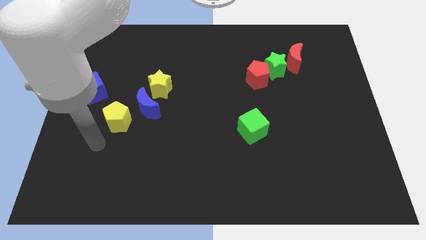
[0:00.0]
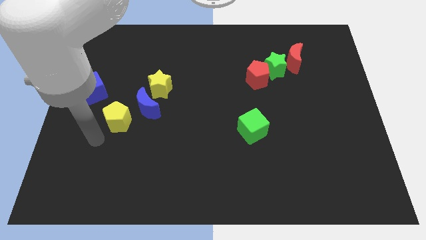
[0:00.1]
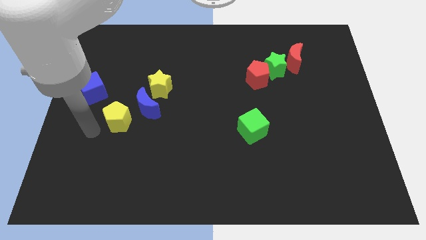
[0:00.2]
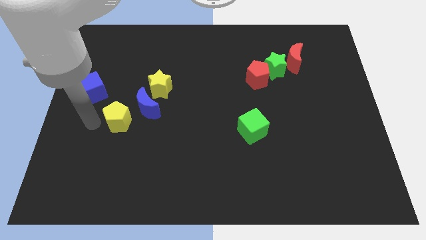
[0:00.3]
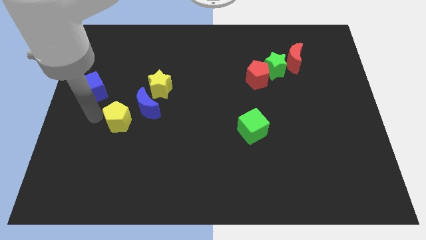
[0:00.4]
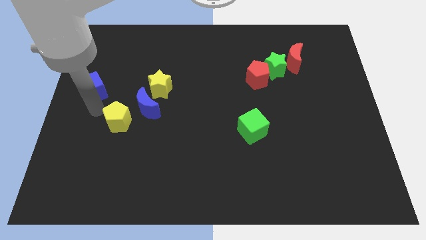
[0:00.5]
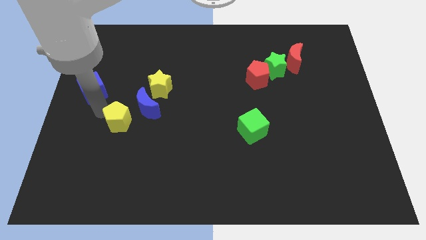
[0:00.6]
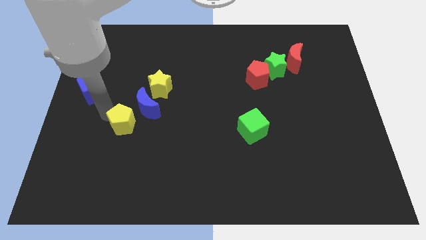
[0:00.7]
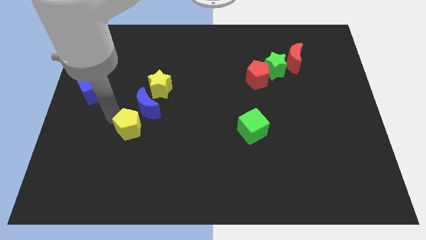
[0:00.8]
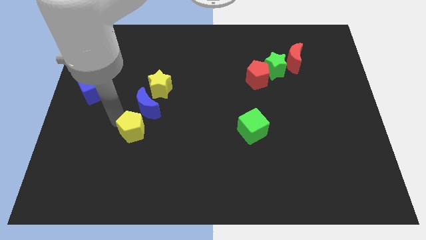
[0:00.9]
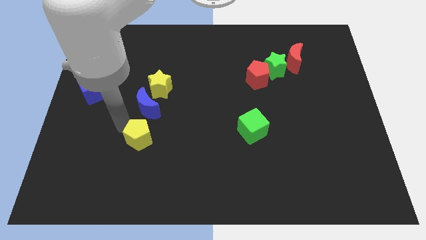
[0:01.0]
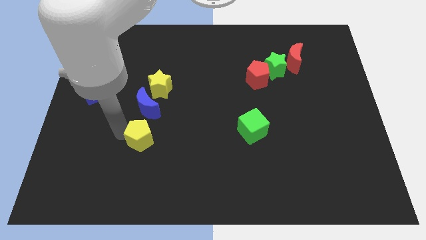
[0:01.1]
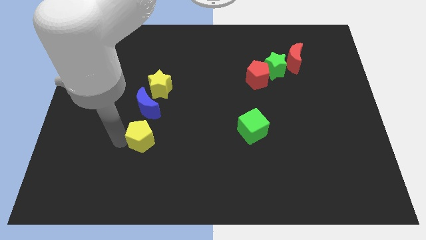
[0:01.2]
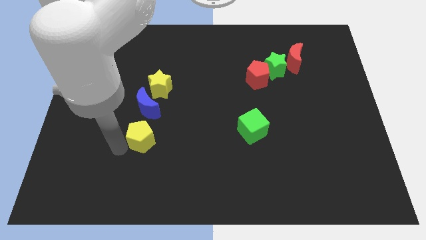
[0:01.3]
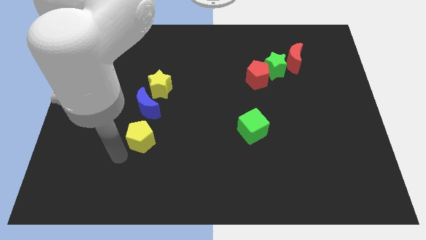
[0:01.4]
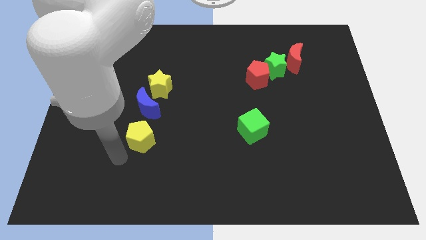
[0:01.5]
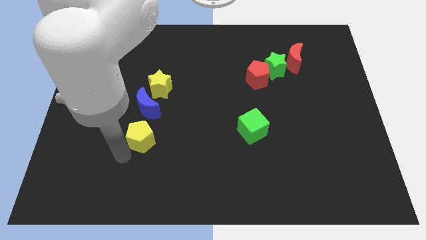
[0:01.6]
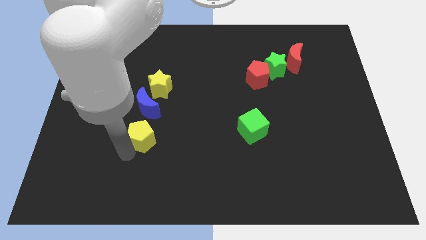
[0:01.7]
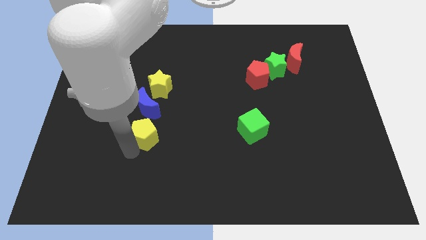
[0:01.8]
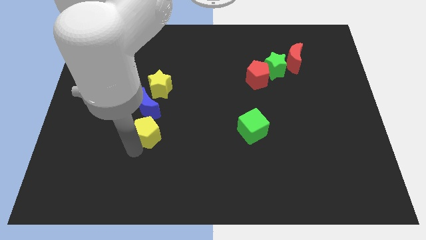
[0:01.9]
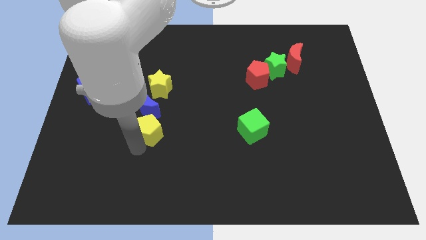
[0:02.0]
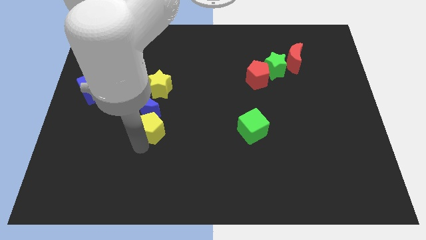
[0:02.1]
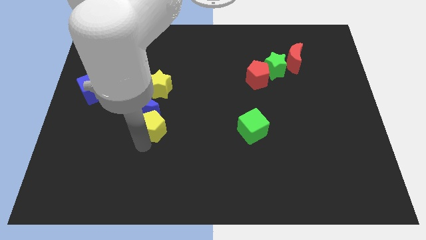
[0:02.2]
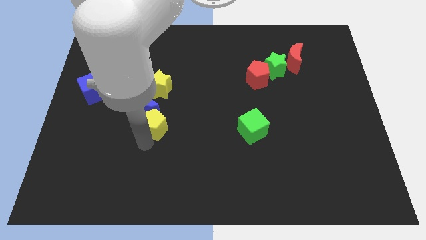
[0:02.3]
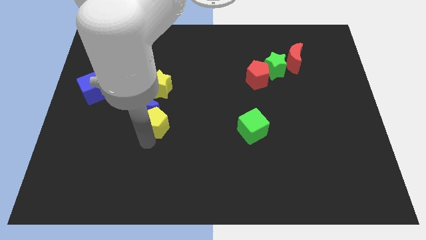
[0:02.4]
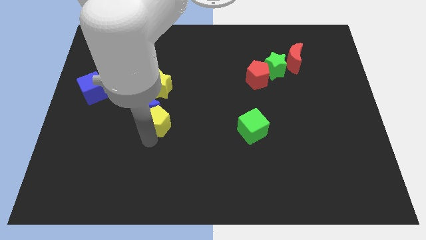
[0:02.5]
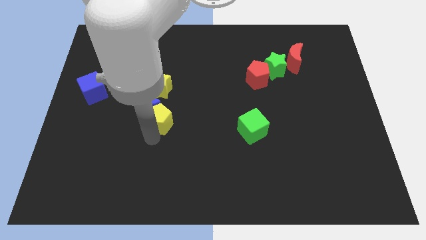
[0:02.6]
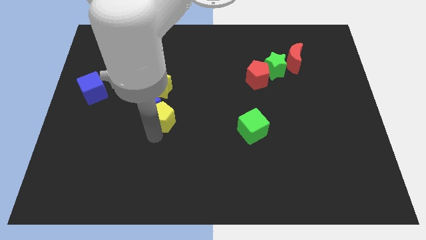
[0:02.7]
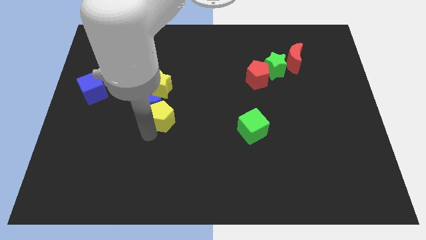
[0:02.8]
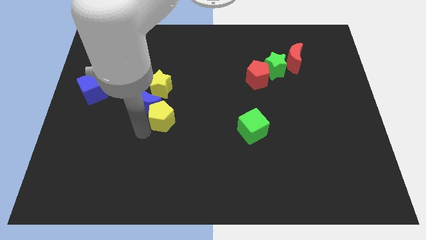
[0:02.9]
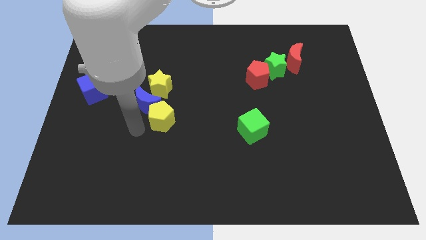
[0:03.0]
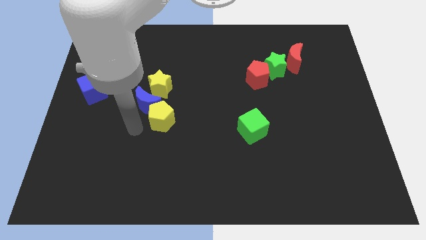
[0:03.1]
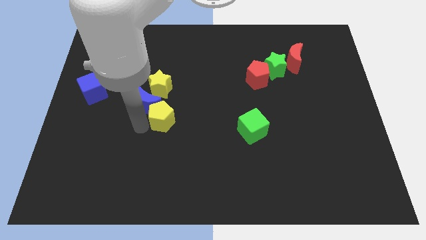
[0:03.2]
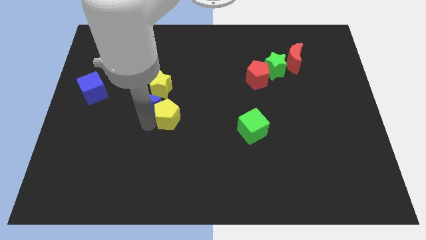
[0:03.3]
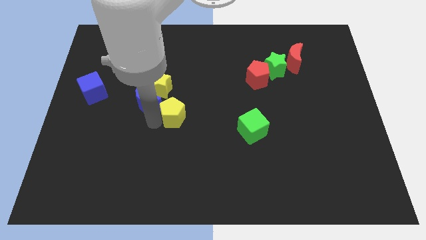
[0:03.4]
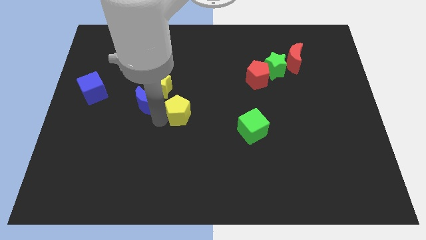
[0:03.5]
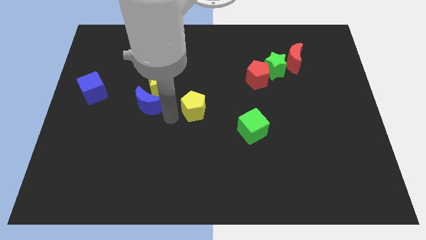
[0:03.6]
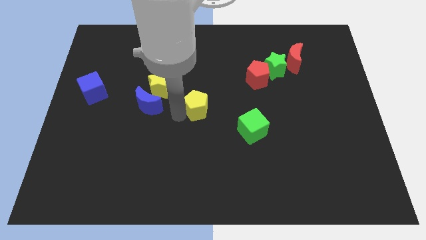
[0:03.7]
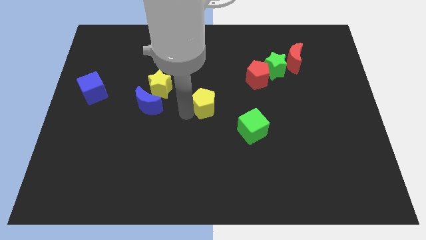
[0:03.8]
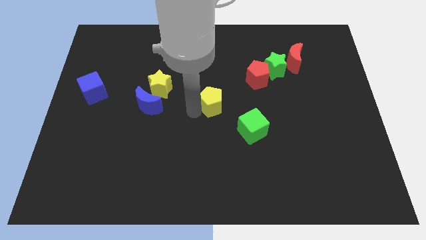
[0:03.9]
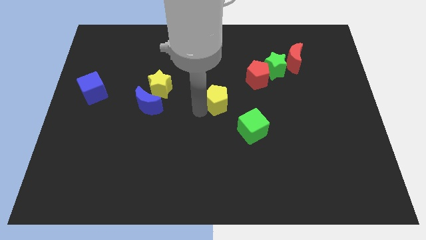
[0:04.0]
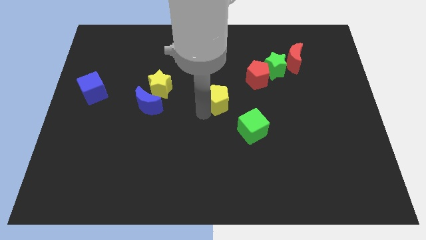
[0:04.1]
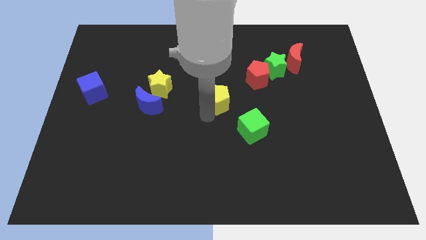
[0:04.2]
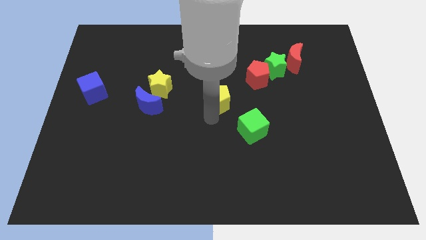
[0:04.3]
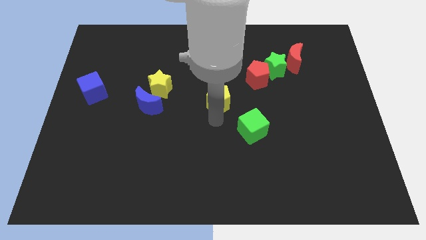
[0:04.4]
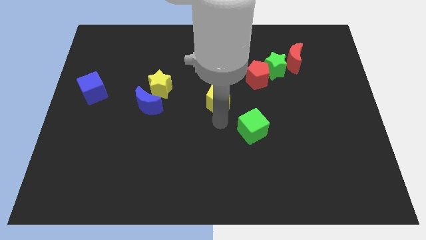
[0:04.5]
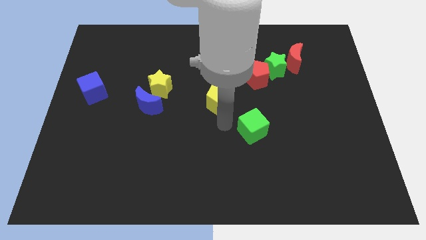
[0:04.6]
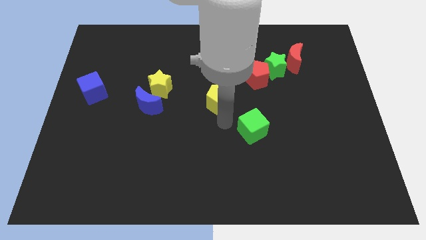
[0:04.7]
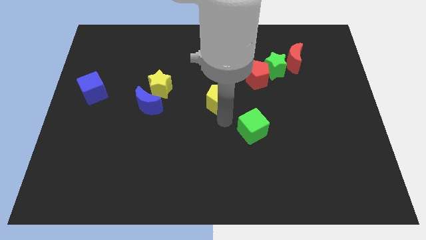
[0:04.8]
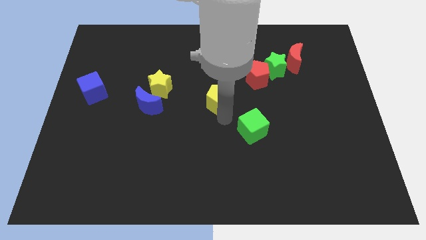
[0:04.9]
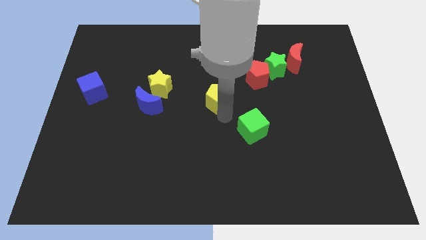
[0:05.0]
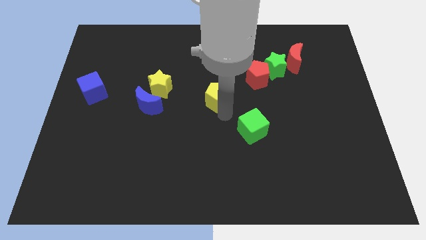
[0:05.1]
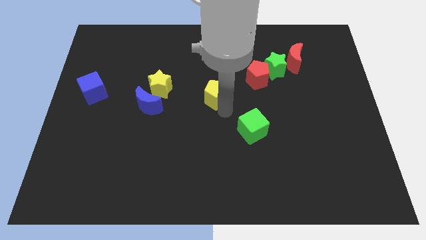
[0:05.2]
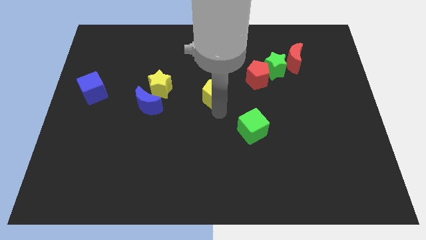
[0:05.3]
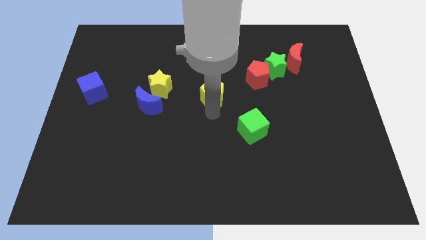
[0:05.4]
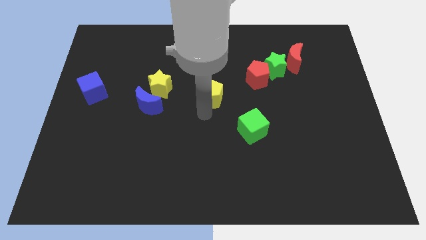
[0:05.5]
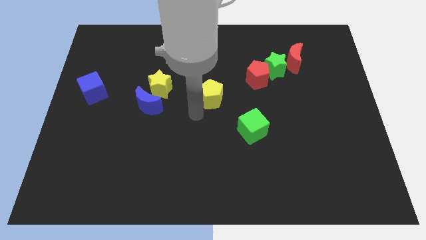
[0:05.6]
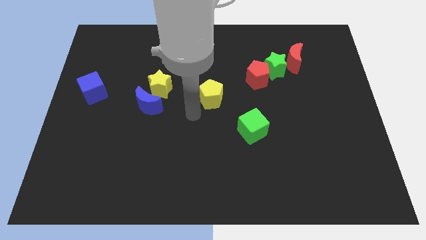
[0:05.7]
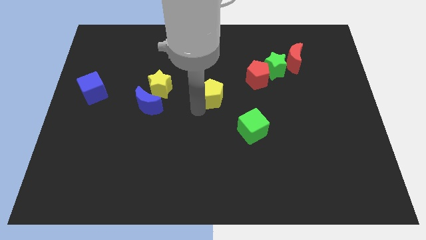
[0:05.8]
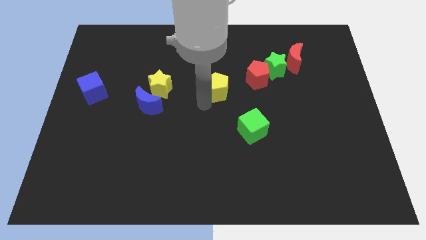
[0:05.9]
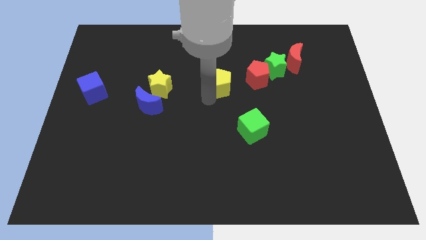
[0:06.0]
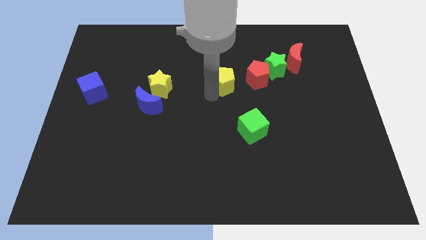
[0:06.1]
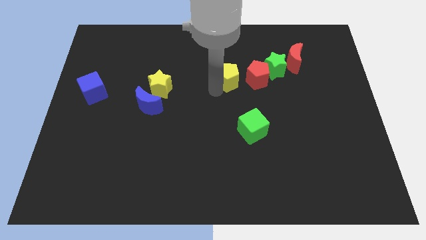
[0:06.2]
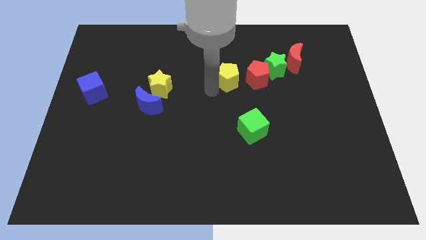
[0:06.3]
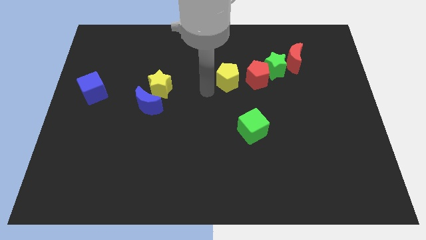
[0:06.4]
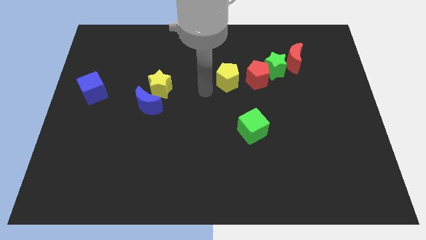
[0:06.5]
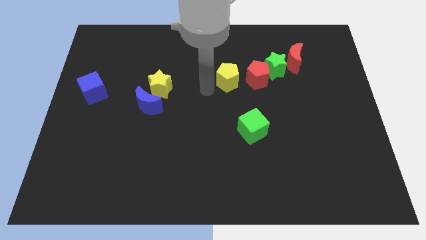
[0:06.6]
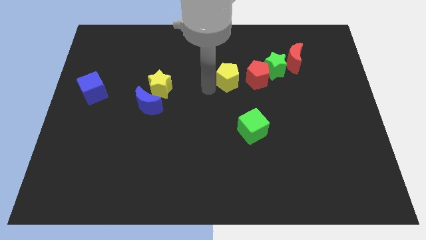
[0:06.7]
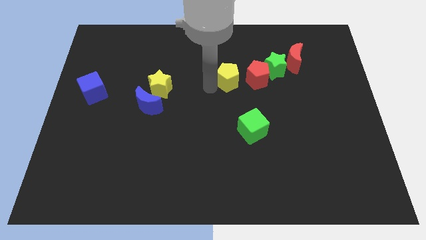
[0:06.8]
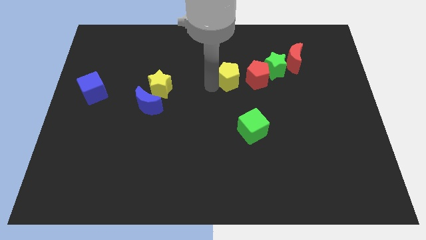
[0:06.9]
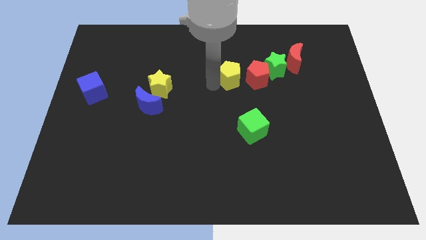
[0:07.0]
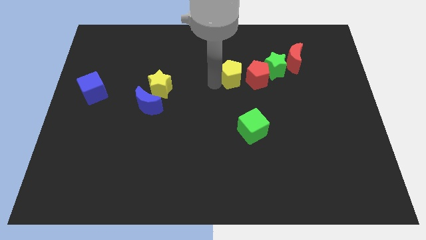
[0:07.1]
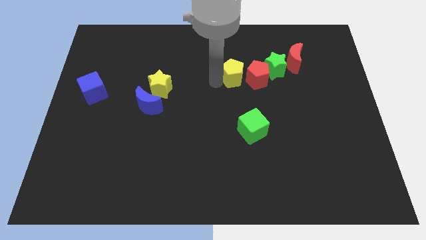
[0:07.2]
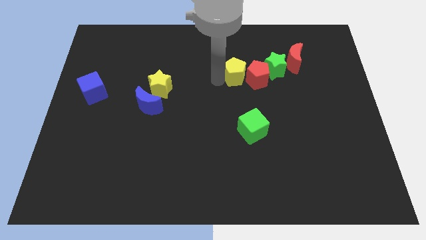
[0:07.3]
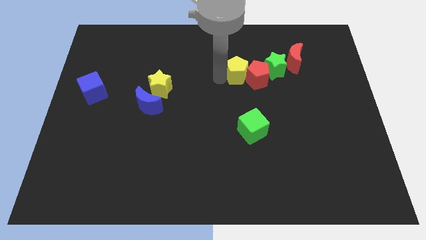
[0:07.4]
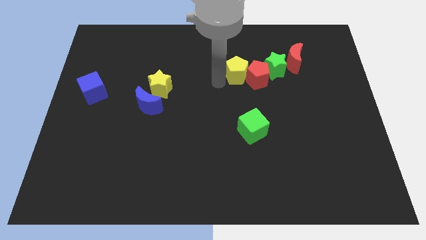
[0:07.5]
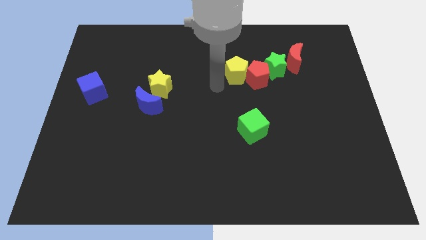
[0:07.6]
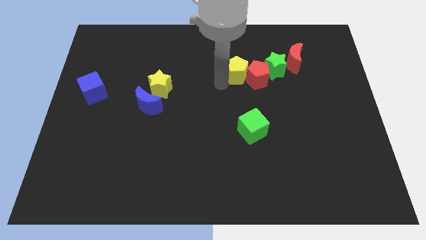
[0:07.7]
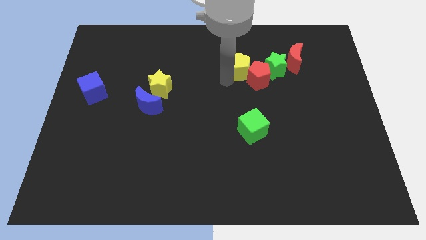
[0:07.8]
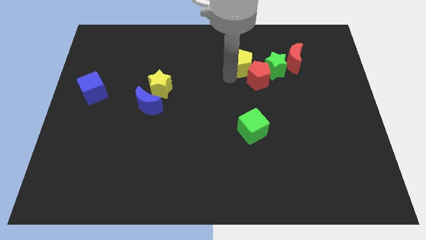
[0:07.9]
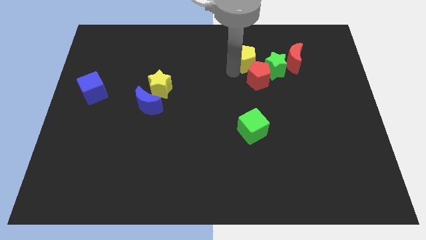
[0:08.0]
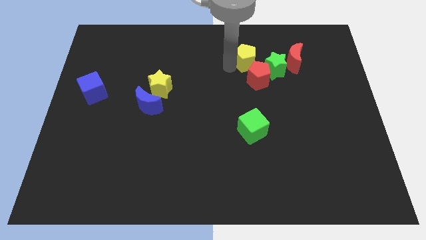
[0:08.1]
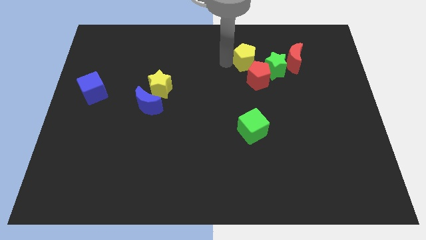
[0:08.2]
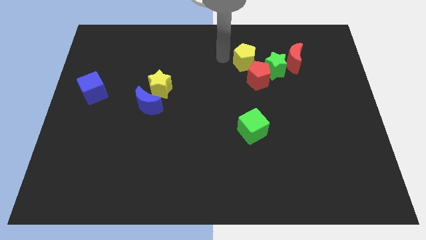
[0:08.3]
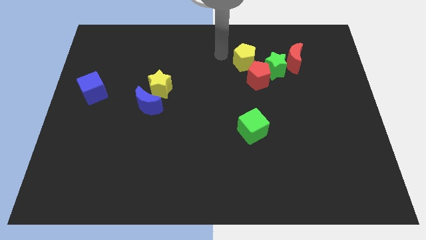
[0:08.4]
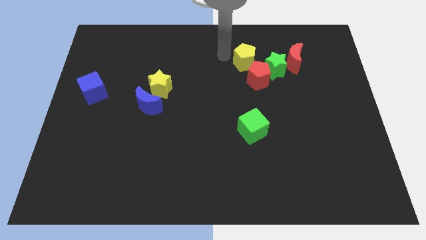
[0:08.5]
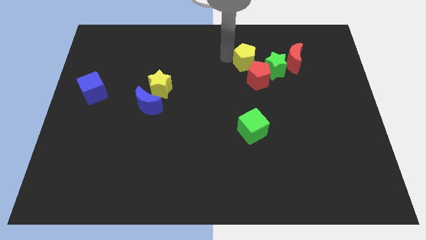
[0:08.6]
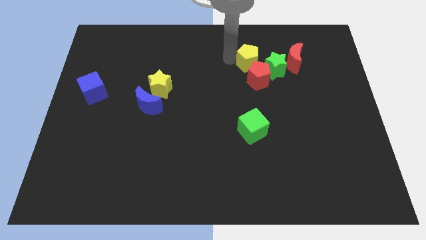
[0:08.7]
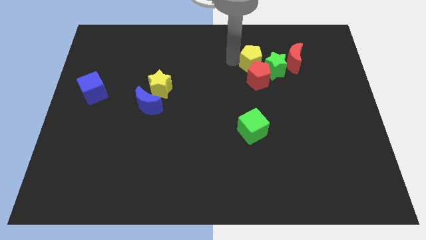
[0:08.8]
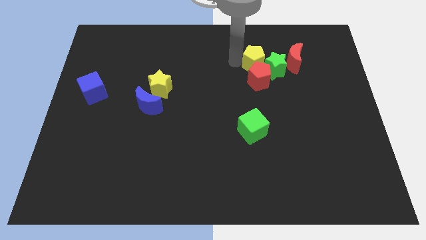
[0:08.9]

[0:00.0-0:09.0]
move the yellow pentagon close to the green star
